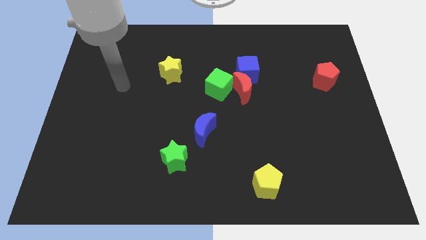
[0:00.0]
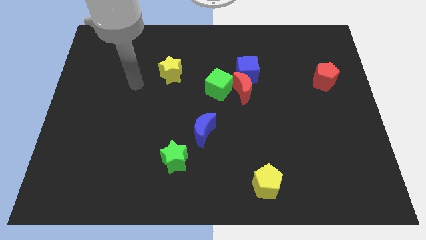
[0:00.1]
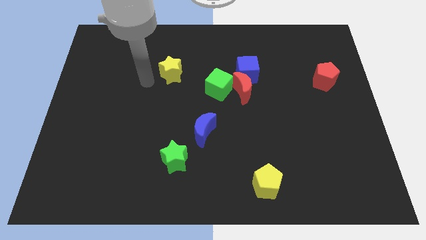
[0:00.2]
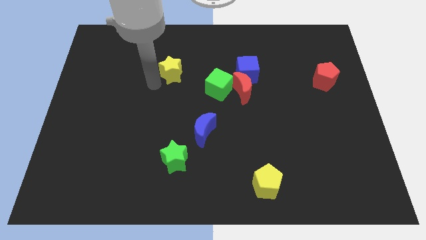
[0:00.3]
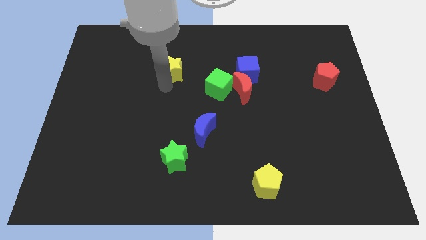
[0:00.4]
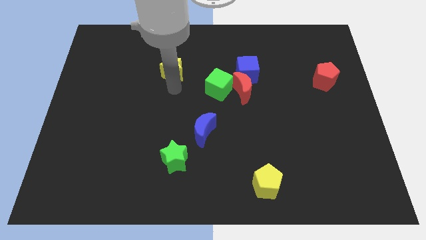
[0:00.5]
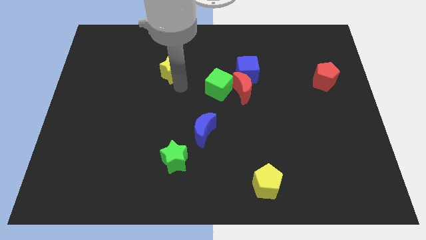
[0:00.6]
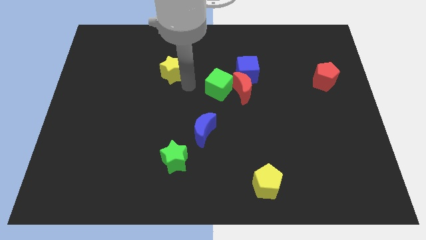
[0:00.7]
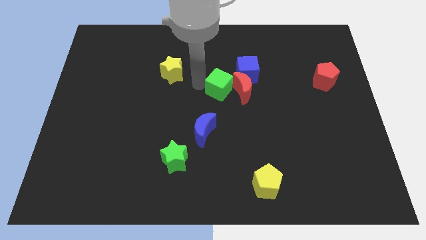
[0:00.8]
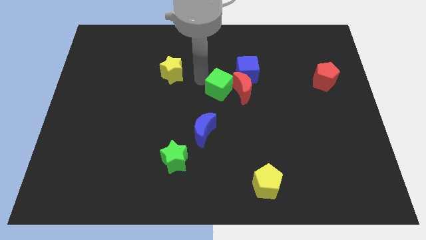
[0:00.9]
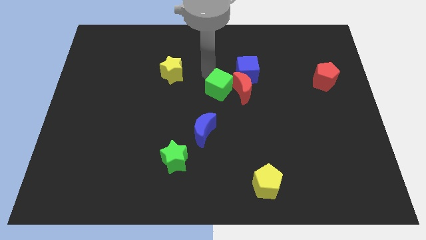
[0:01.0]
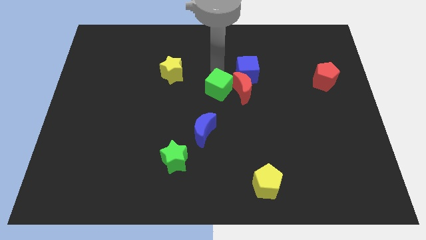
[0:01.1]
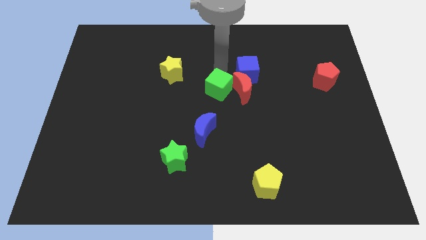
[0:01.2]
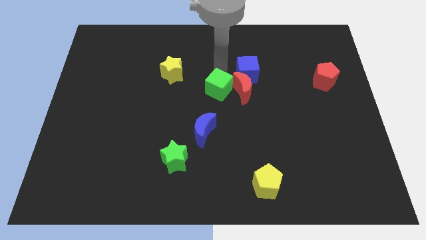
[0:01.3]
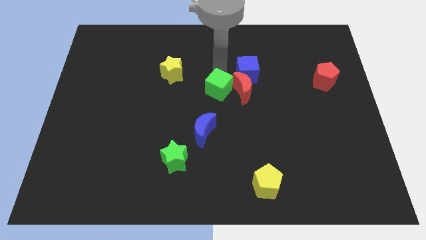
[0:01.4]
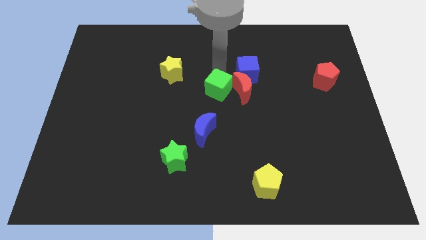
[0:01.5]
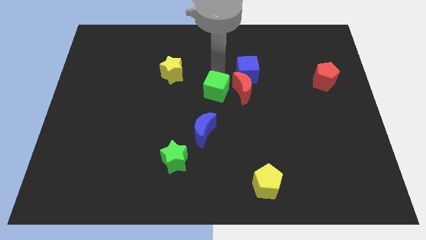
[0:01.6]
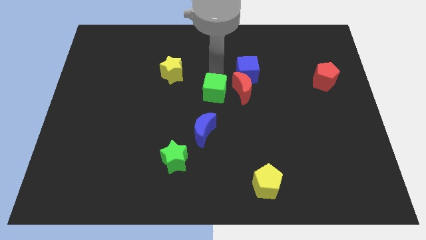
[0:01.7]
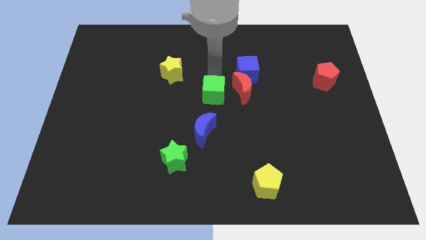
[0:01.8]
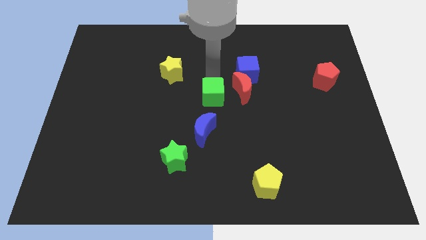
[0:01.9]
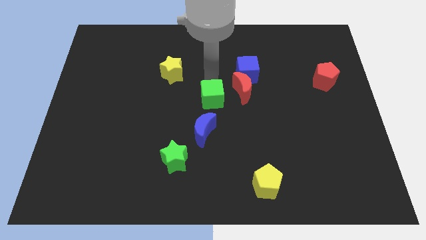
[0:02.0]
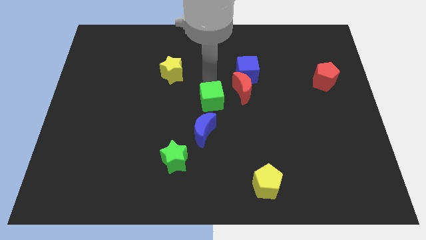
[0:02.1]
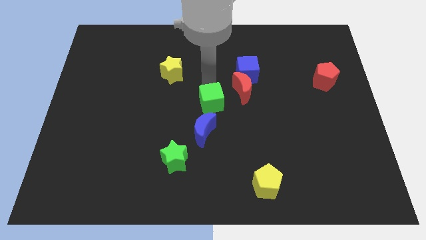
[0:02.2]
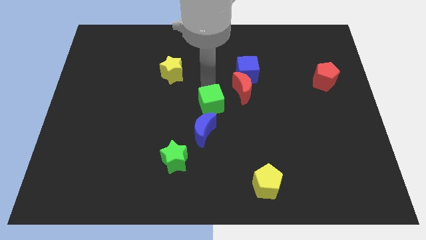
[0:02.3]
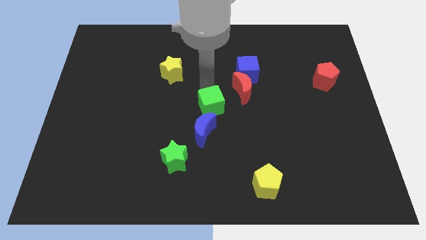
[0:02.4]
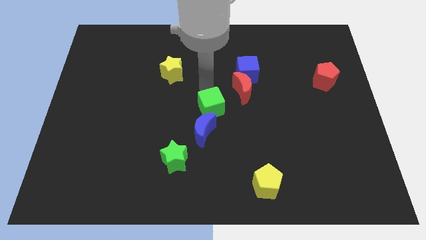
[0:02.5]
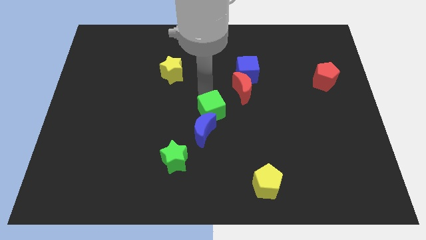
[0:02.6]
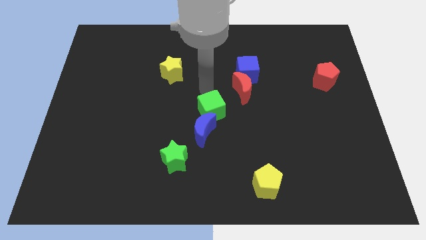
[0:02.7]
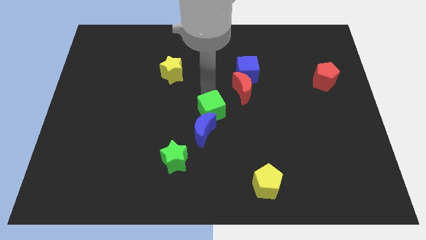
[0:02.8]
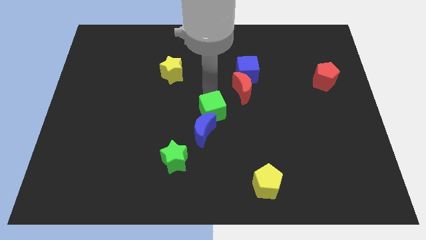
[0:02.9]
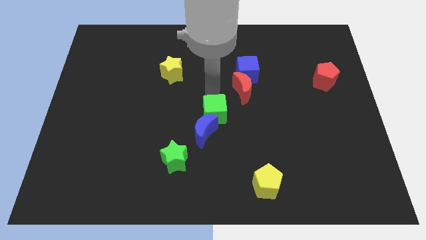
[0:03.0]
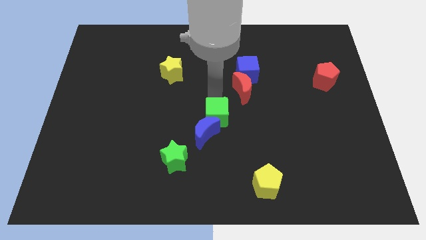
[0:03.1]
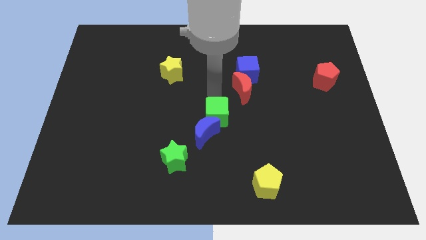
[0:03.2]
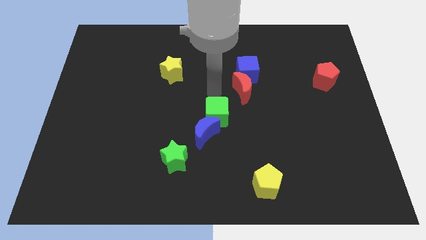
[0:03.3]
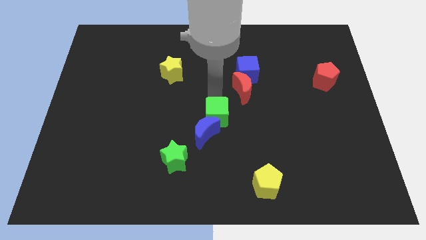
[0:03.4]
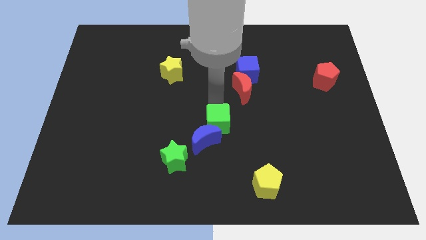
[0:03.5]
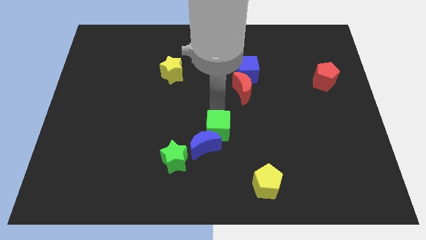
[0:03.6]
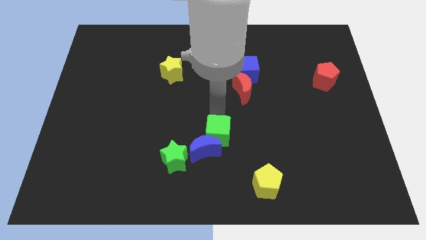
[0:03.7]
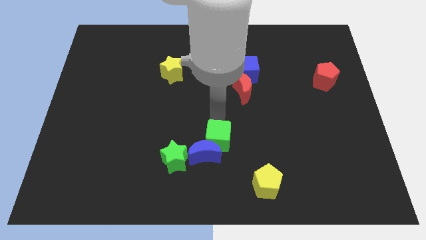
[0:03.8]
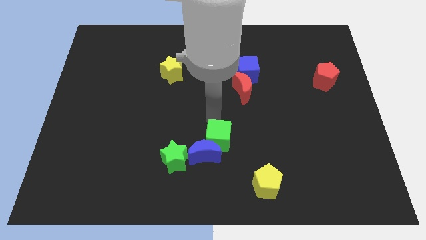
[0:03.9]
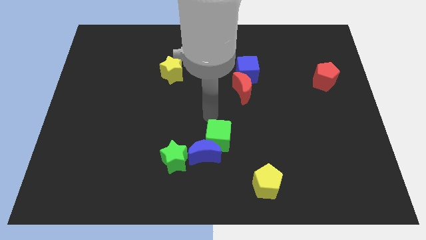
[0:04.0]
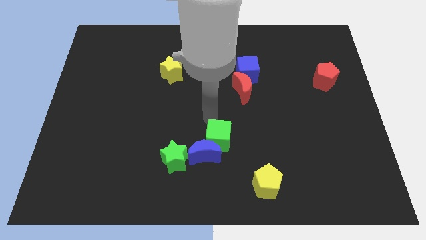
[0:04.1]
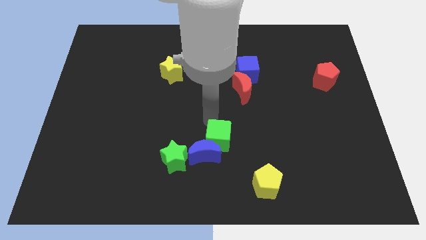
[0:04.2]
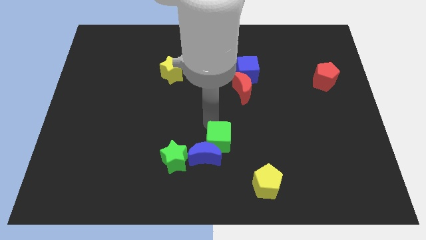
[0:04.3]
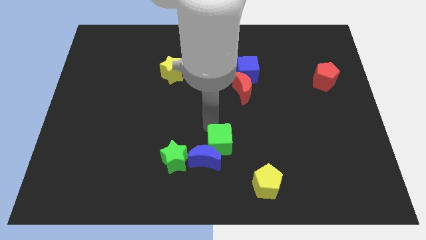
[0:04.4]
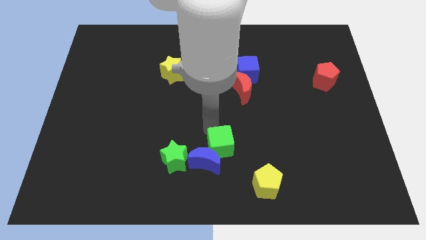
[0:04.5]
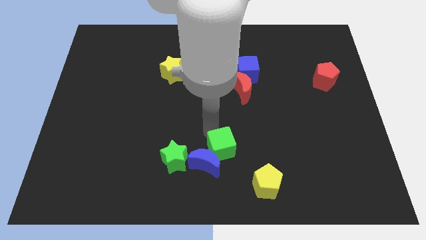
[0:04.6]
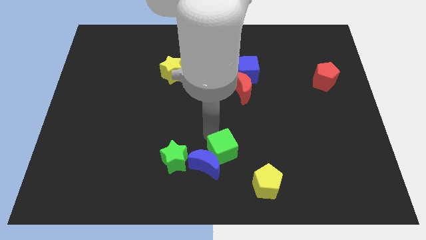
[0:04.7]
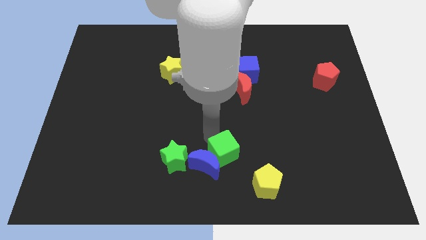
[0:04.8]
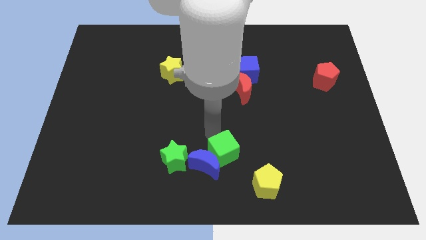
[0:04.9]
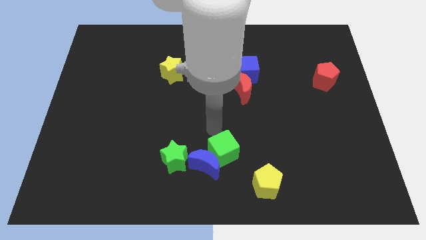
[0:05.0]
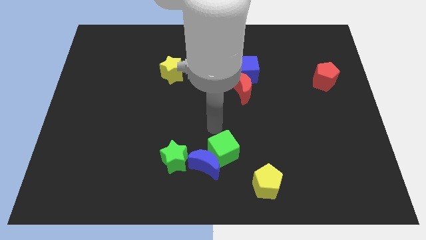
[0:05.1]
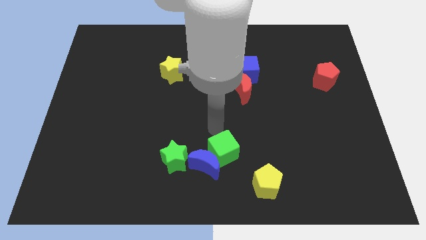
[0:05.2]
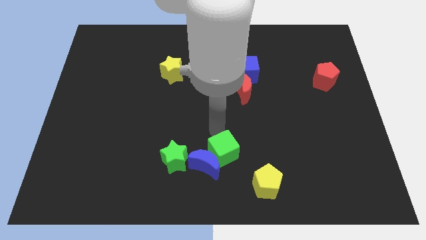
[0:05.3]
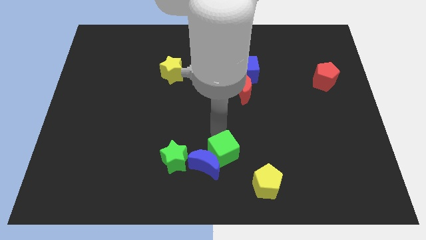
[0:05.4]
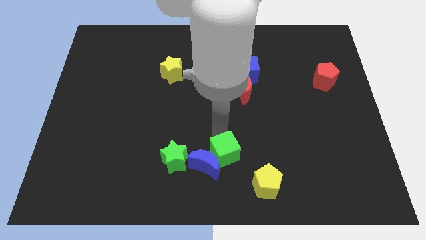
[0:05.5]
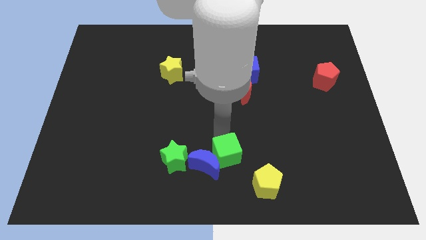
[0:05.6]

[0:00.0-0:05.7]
push the green cube to the bottom

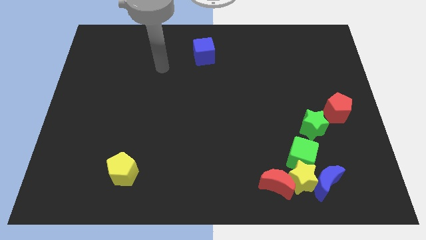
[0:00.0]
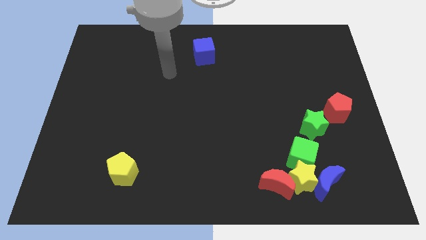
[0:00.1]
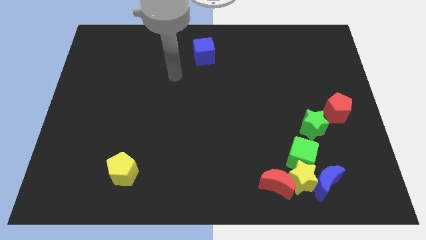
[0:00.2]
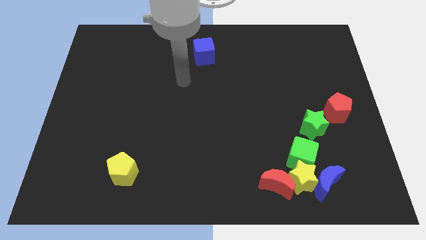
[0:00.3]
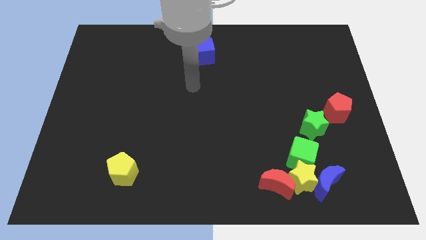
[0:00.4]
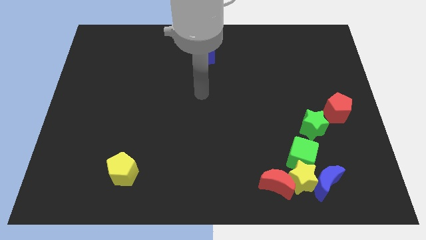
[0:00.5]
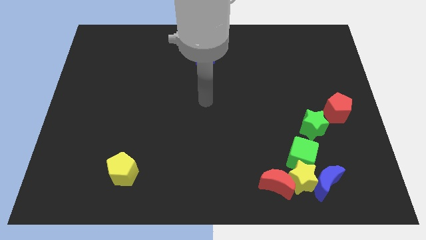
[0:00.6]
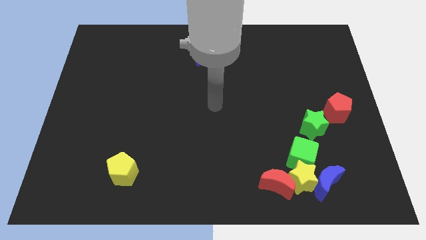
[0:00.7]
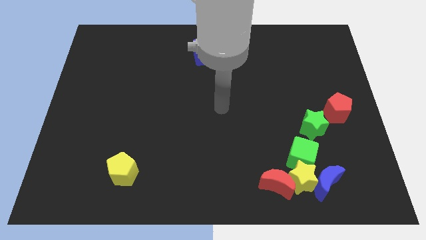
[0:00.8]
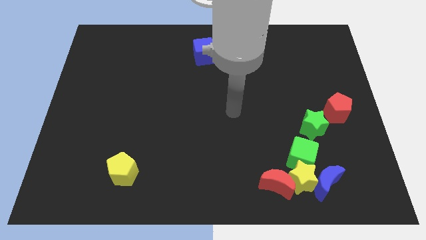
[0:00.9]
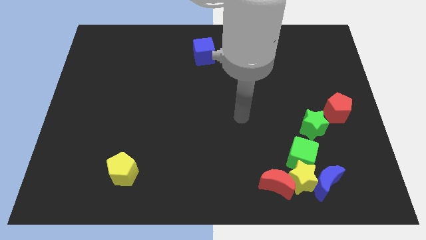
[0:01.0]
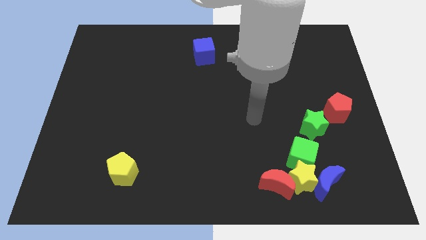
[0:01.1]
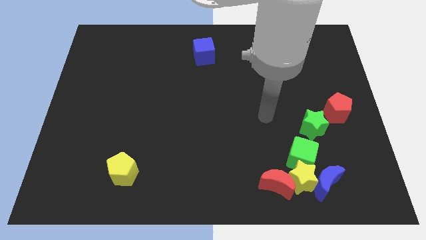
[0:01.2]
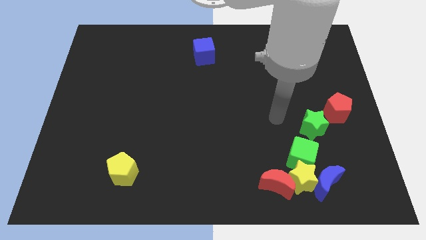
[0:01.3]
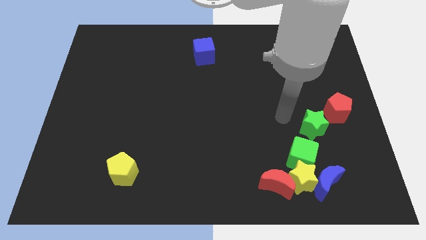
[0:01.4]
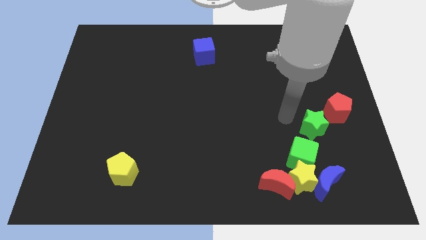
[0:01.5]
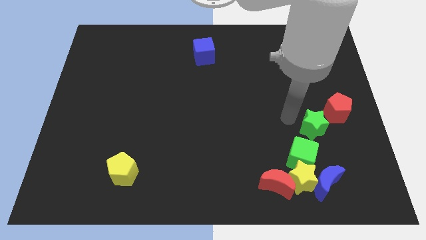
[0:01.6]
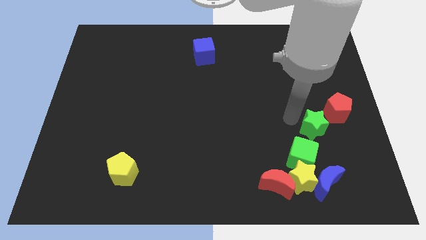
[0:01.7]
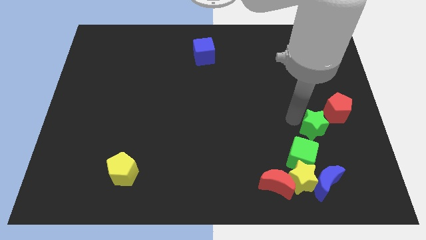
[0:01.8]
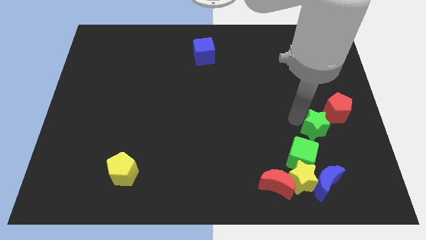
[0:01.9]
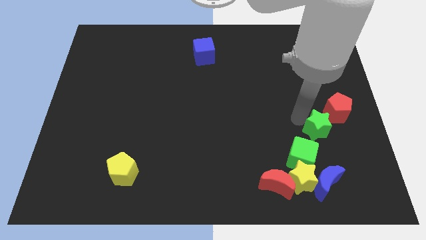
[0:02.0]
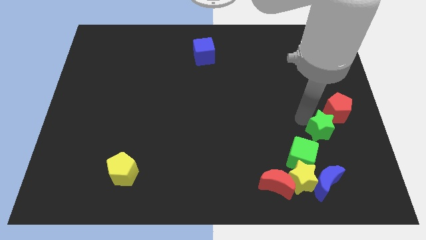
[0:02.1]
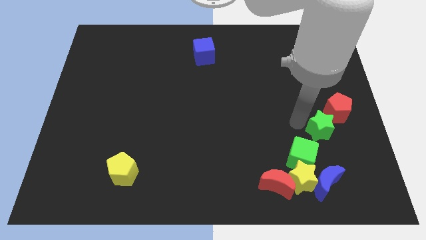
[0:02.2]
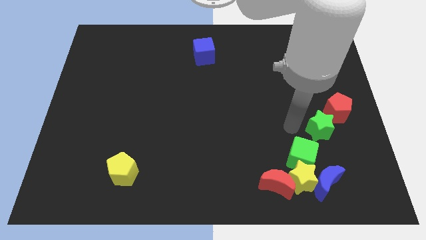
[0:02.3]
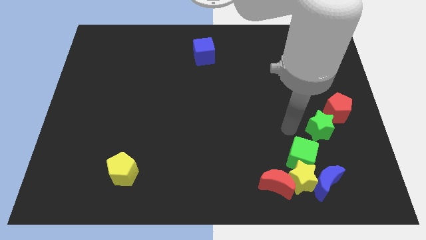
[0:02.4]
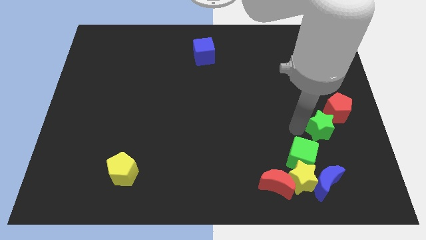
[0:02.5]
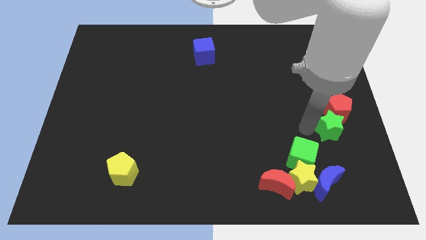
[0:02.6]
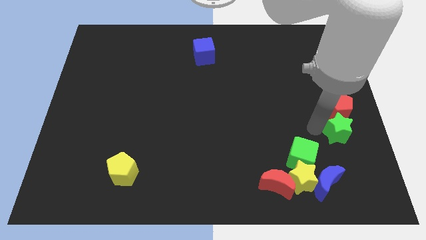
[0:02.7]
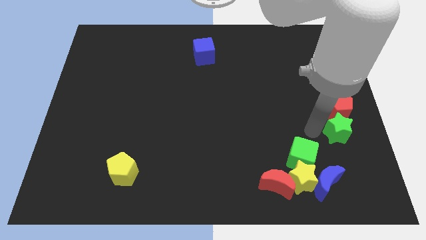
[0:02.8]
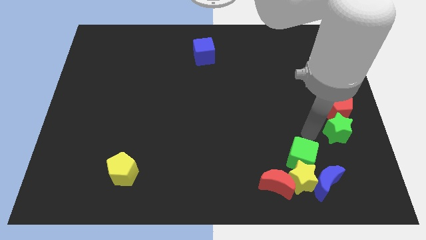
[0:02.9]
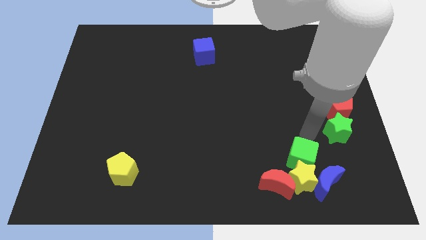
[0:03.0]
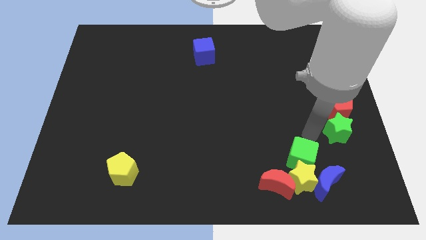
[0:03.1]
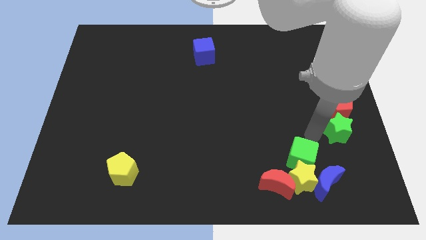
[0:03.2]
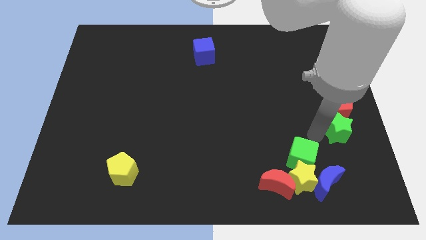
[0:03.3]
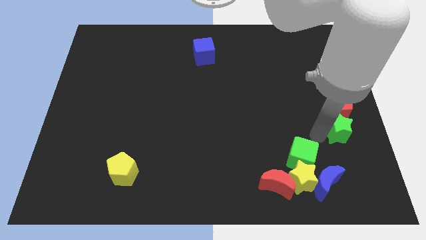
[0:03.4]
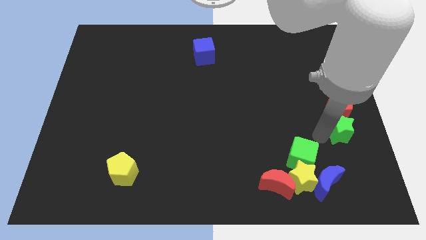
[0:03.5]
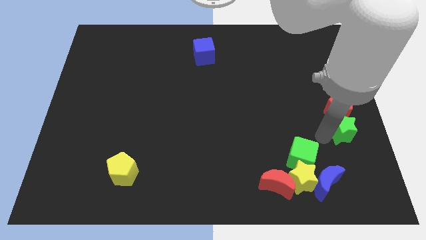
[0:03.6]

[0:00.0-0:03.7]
move the green star to the right side of the board
